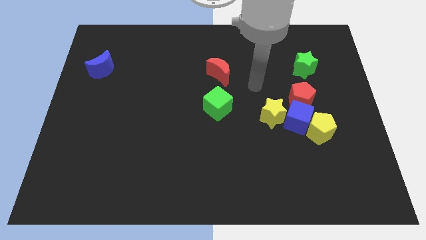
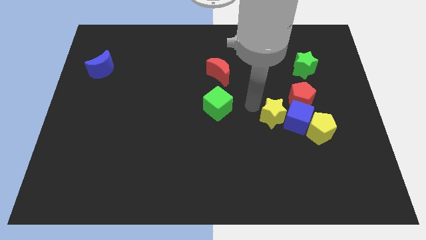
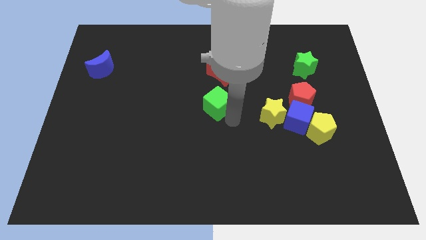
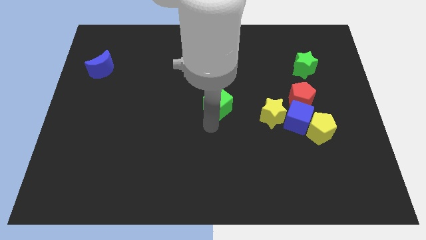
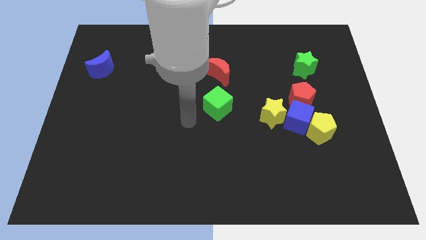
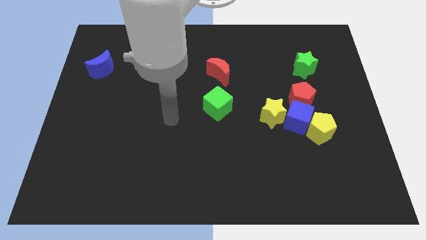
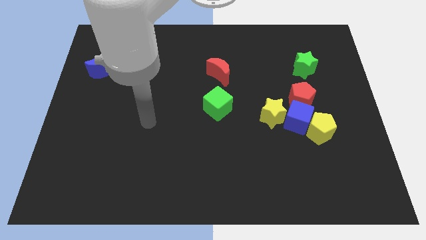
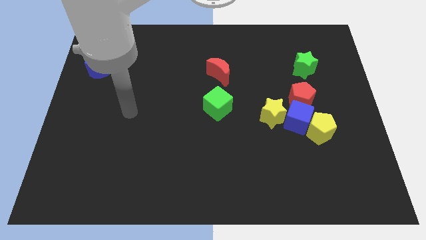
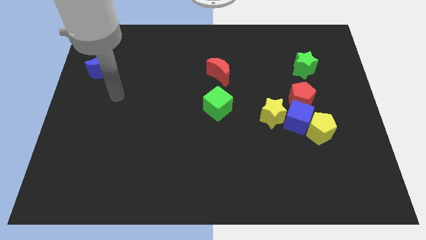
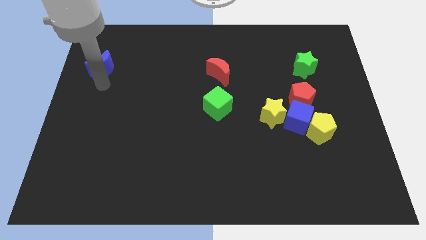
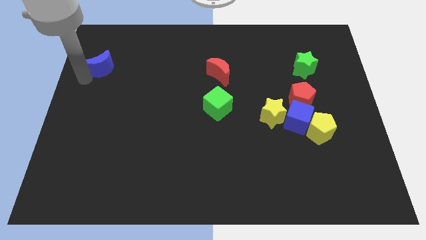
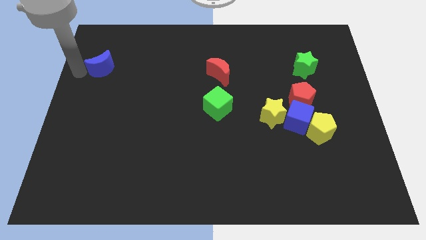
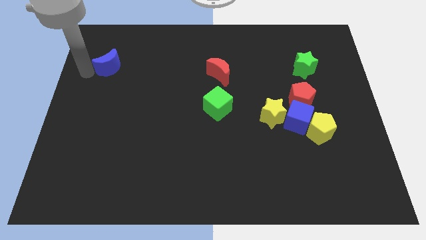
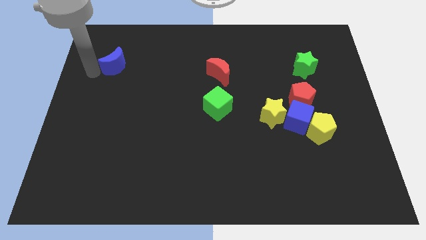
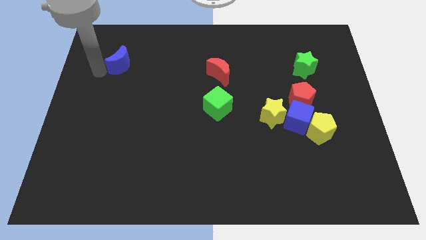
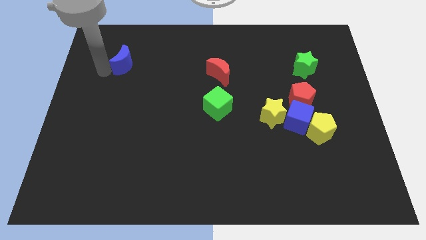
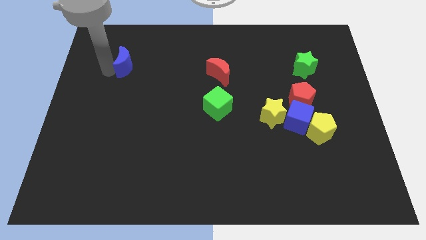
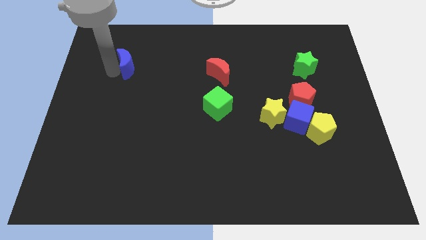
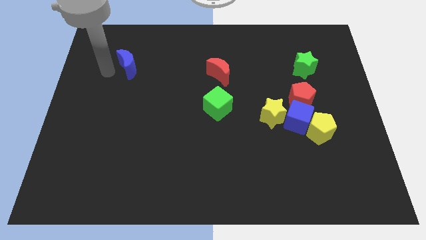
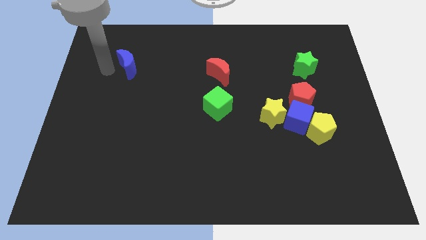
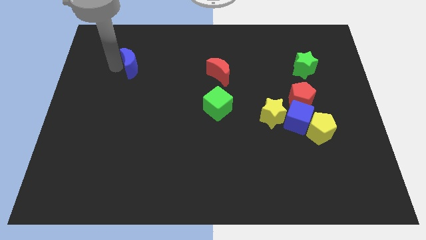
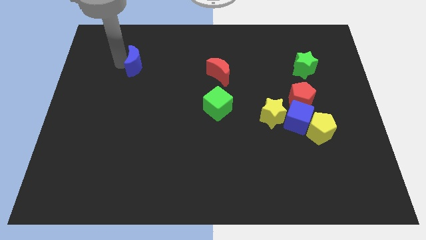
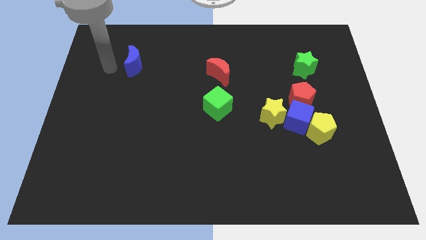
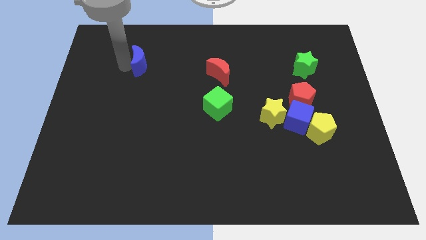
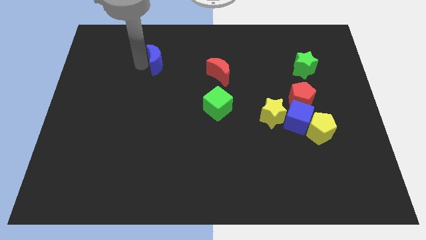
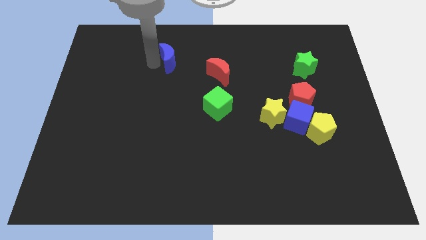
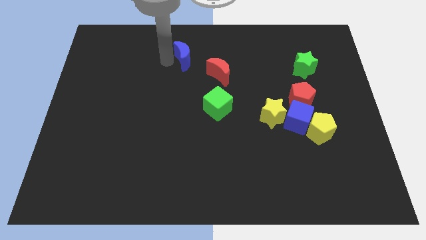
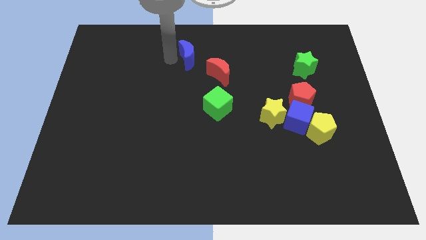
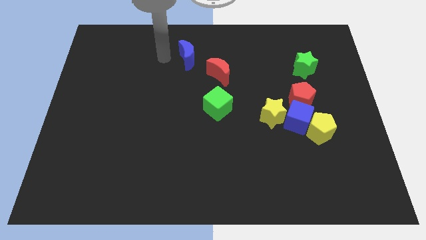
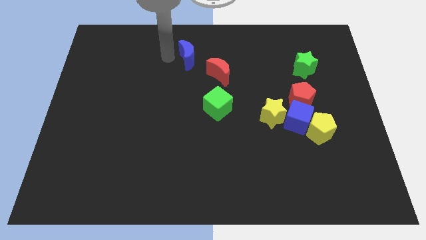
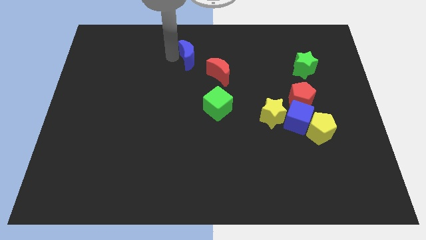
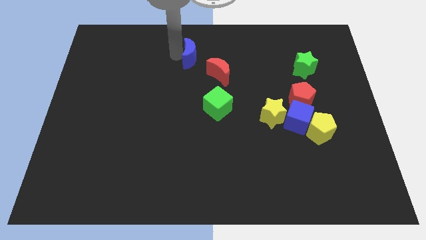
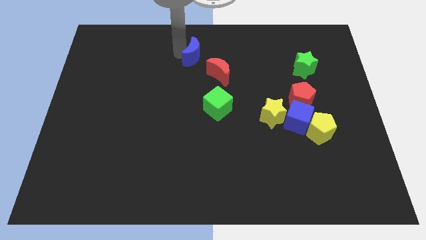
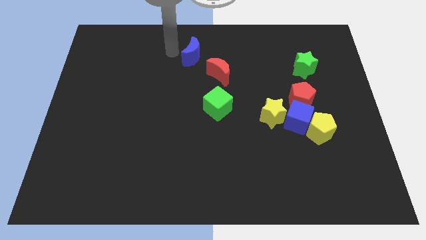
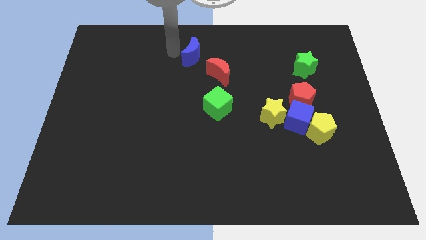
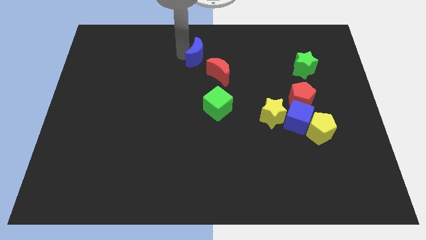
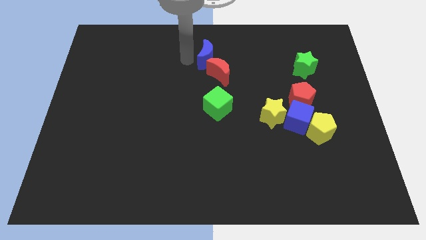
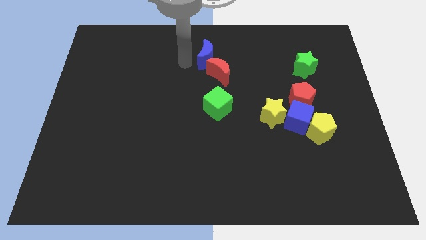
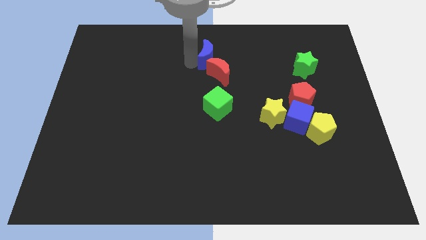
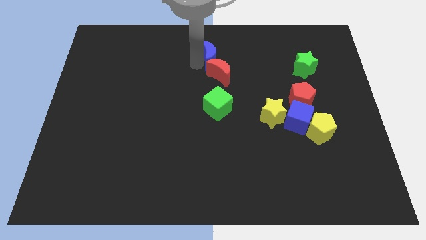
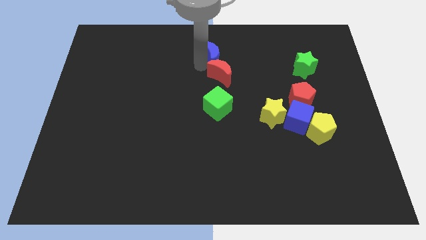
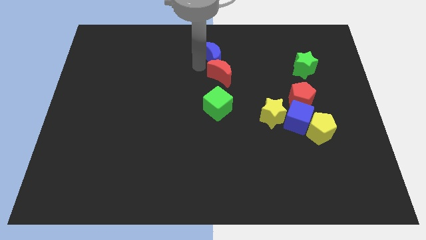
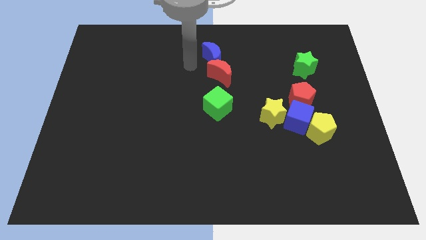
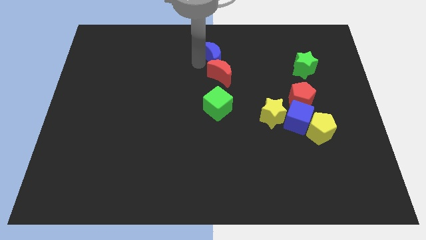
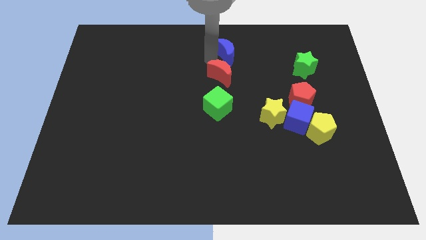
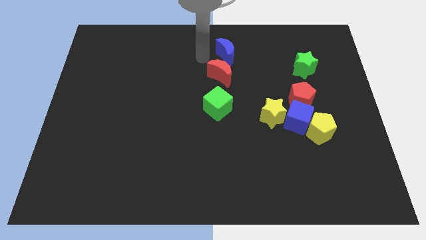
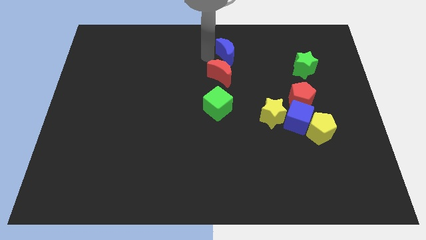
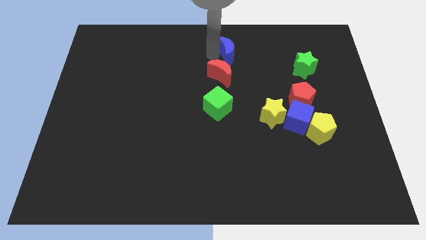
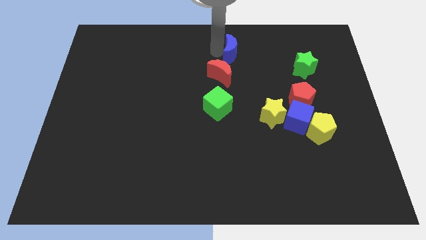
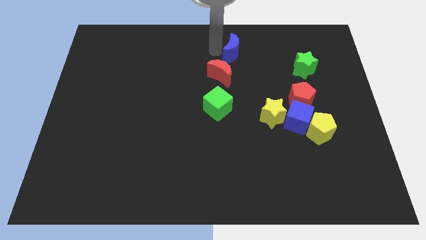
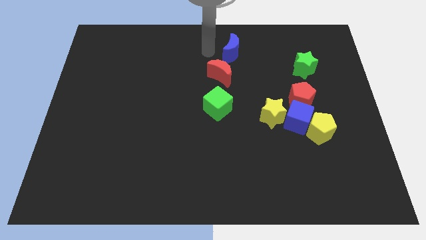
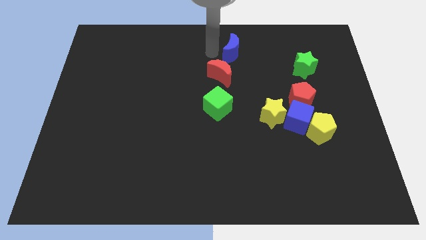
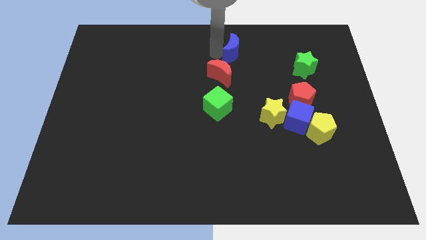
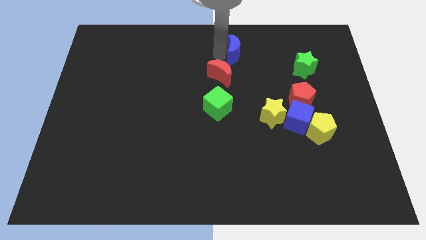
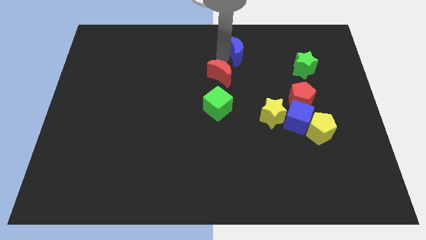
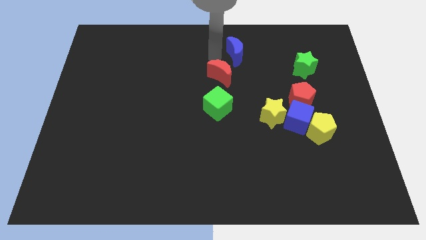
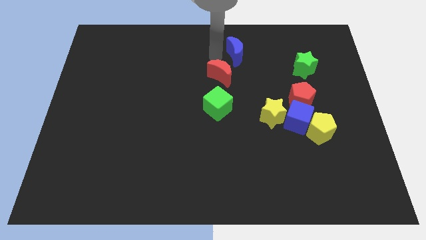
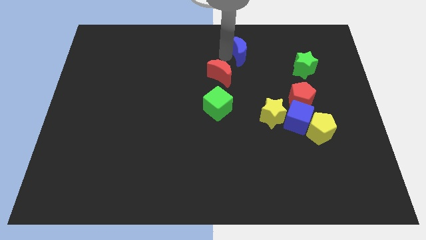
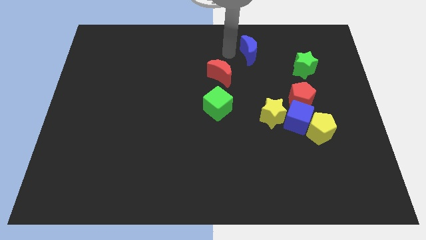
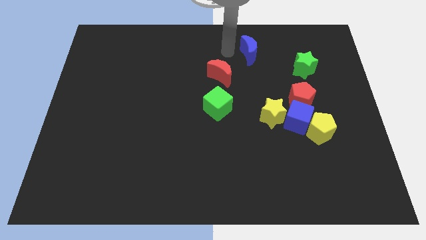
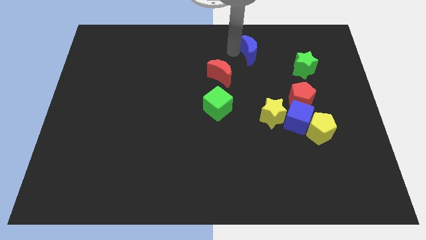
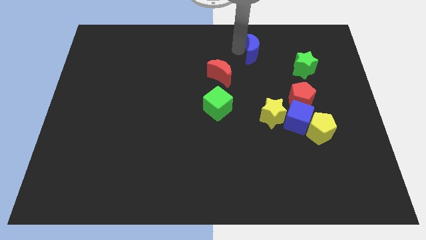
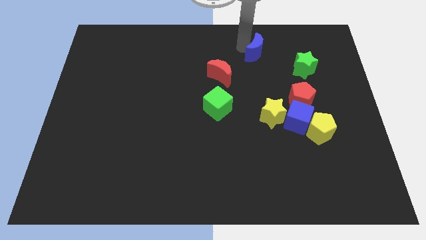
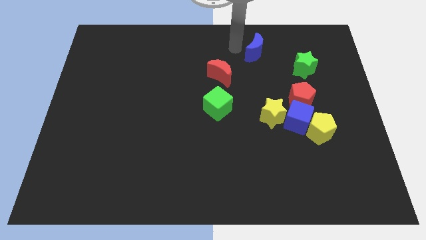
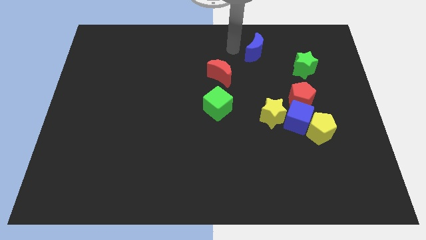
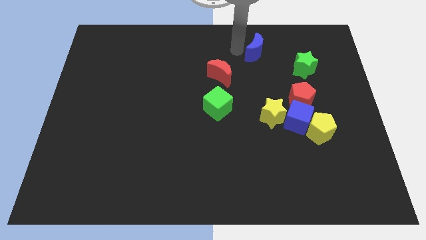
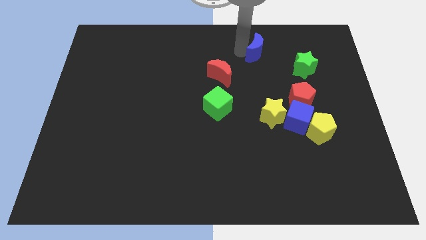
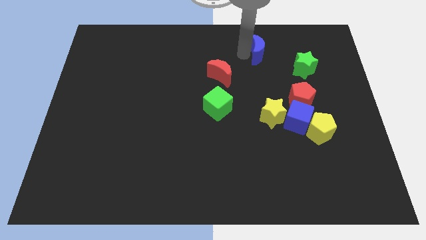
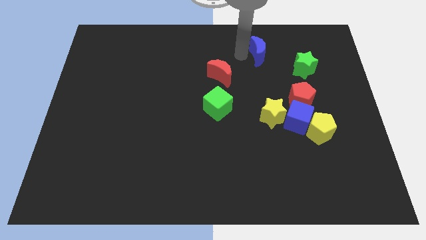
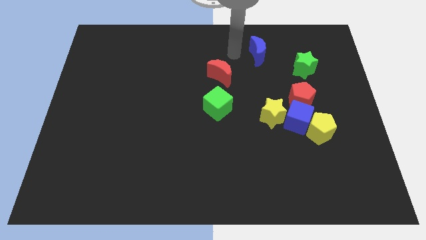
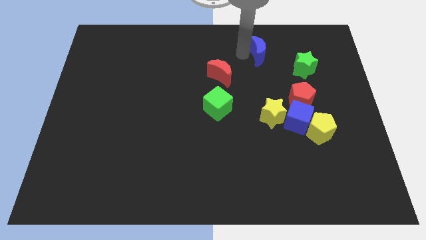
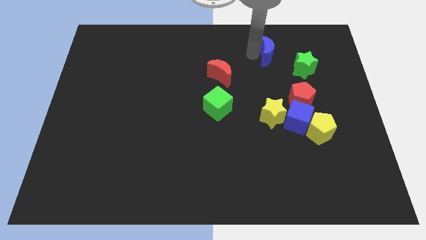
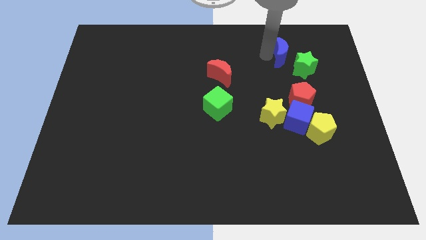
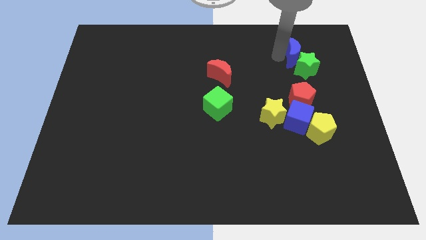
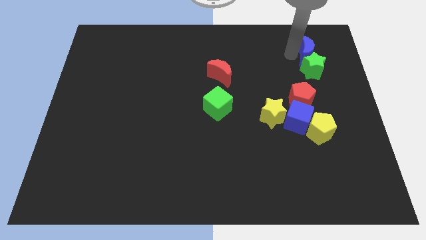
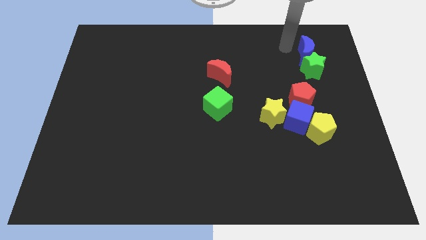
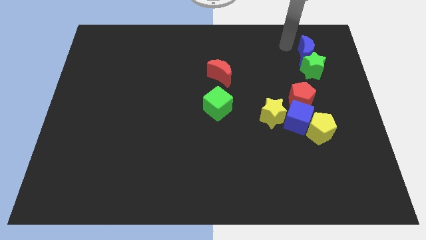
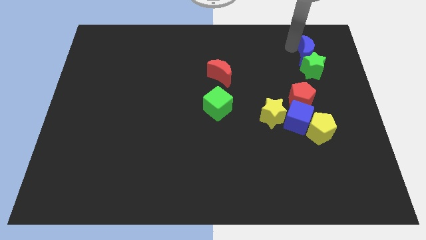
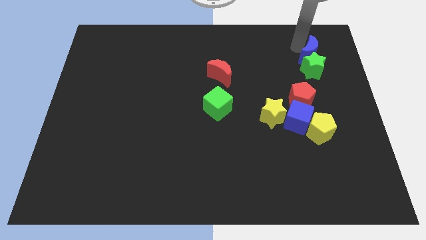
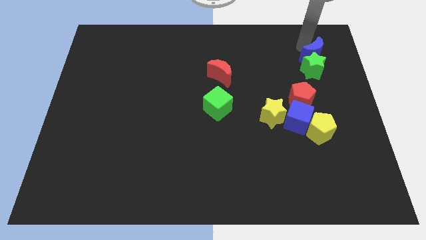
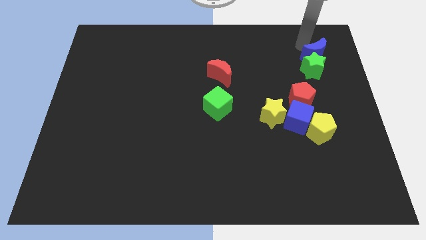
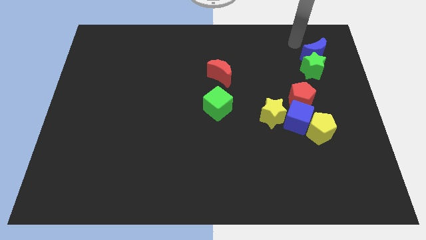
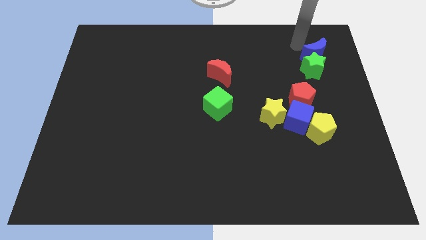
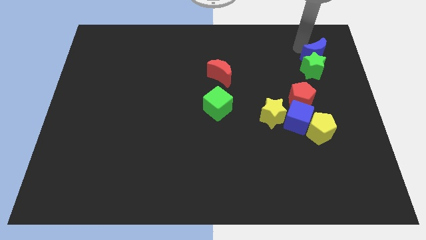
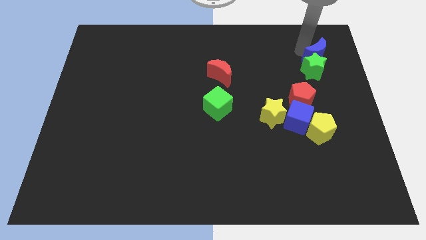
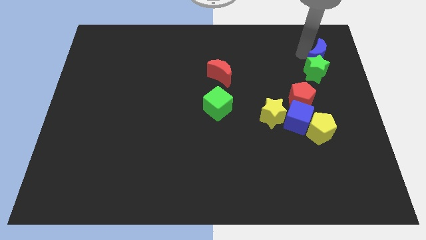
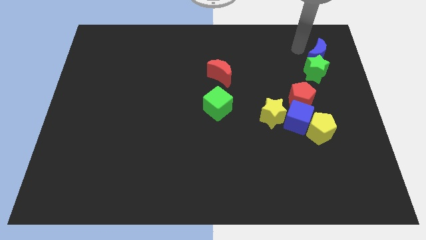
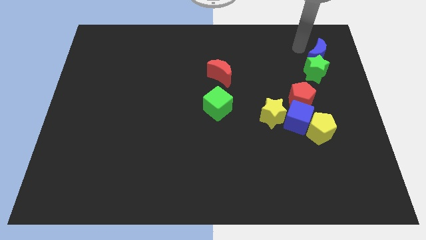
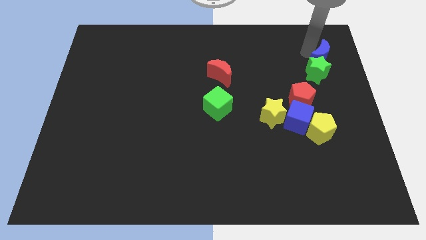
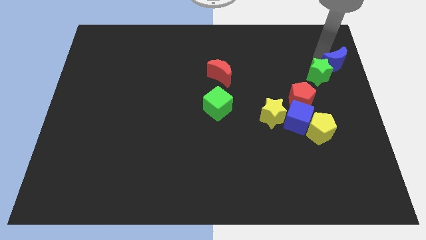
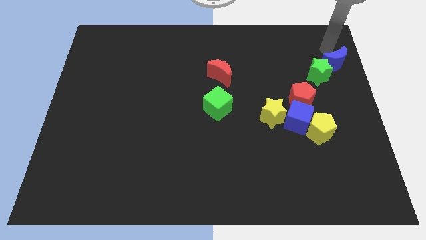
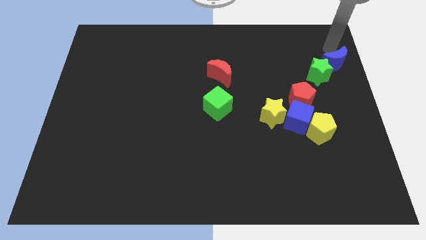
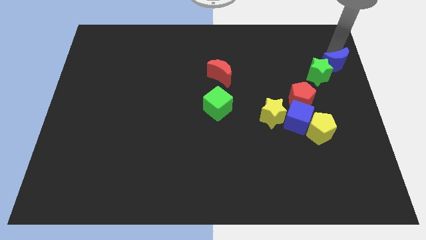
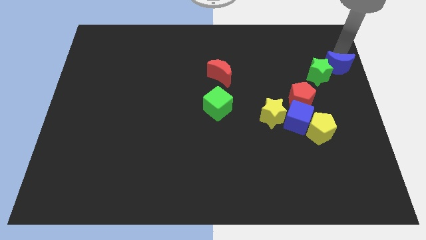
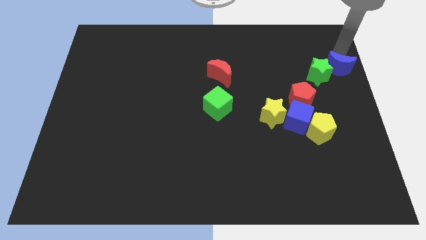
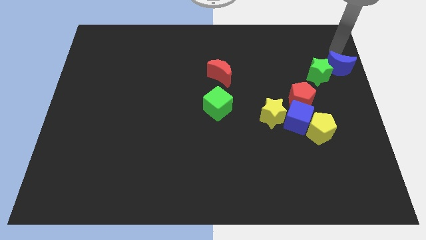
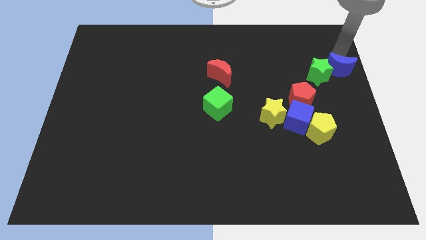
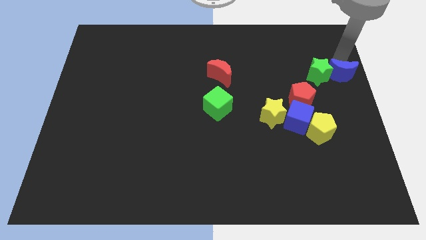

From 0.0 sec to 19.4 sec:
push the blue moon to the bottom right side of the green star
